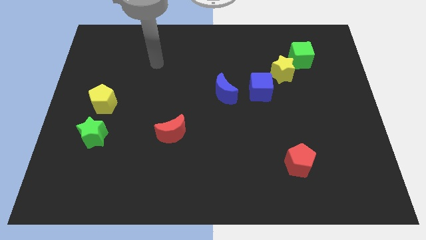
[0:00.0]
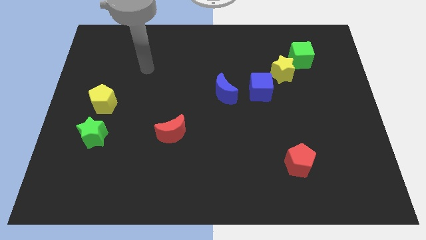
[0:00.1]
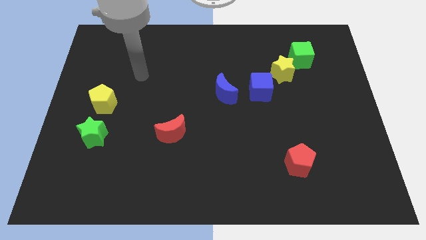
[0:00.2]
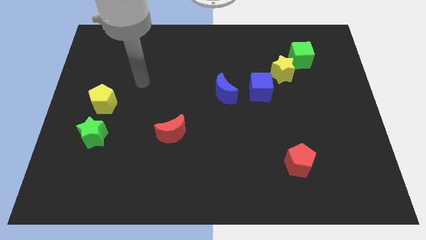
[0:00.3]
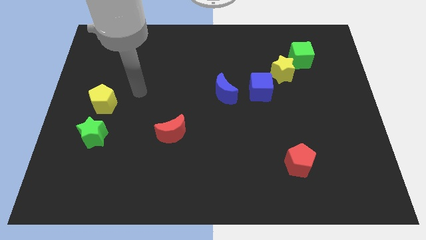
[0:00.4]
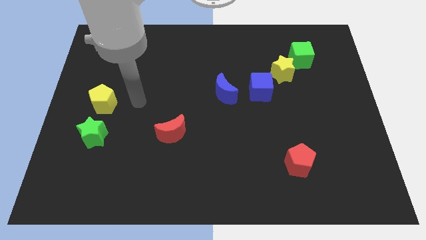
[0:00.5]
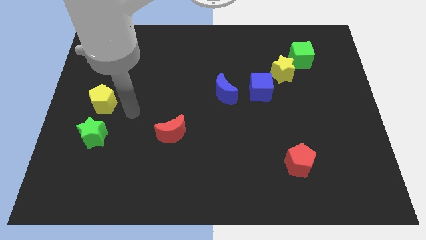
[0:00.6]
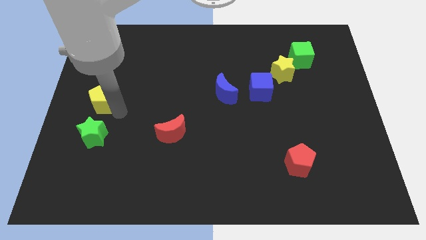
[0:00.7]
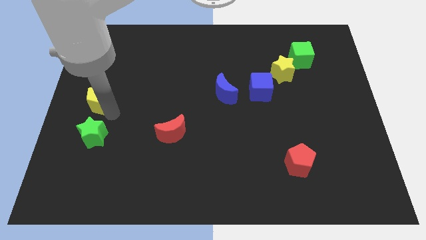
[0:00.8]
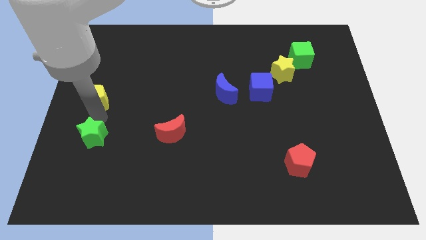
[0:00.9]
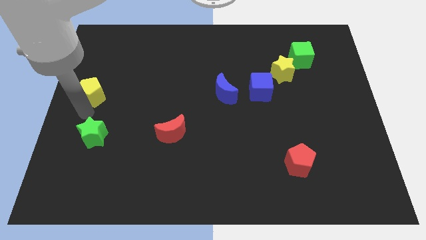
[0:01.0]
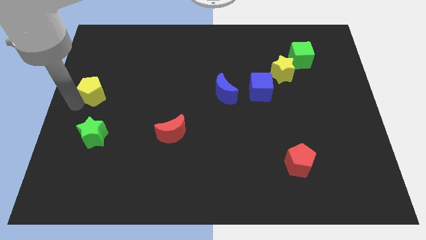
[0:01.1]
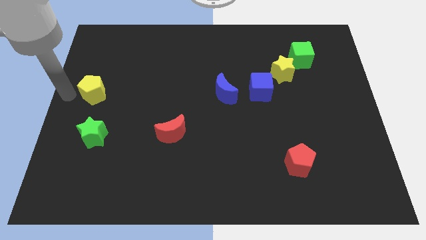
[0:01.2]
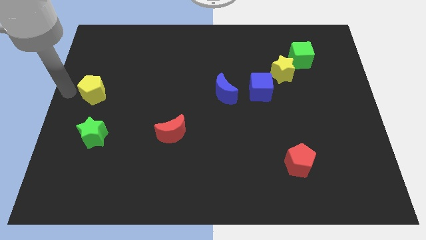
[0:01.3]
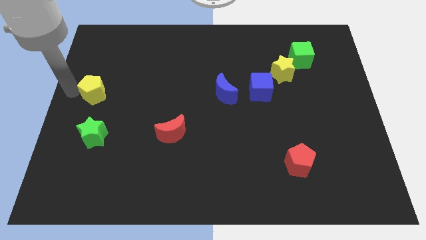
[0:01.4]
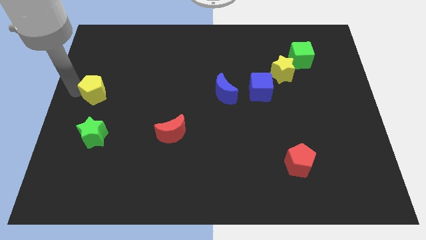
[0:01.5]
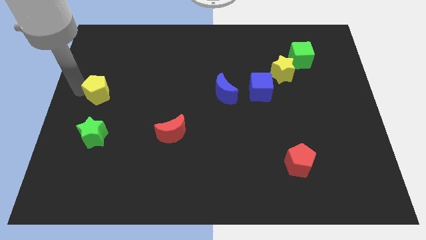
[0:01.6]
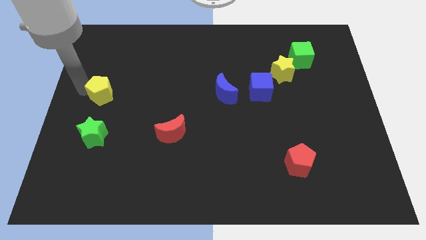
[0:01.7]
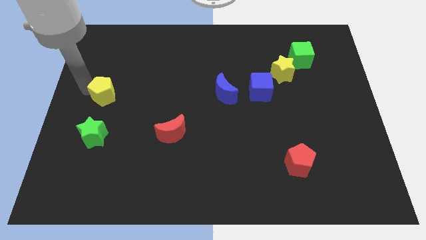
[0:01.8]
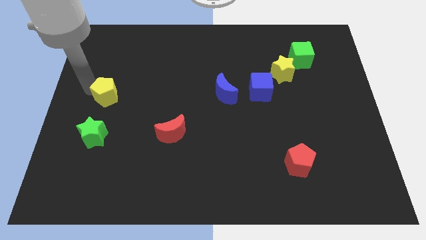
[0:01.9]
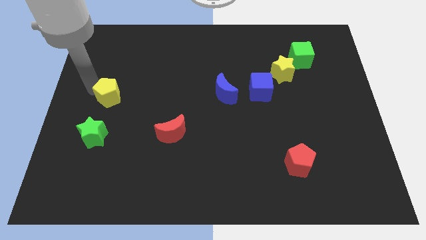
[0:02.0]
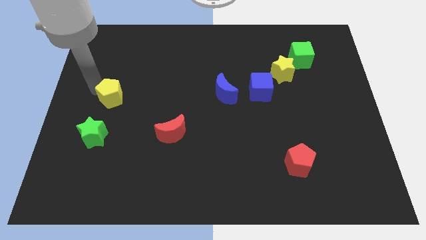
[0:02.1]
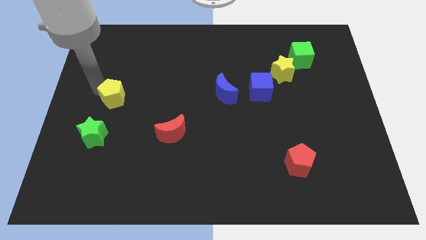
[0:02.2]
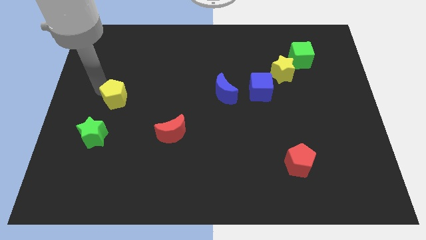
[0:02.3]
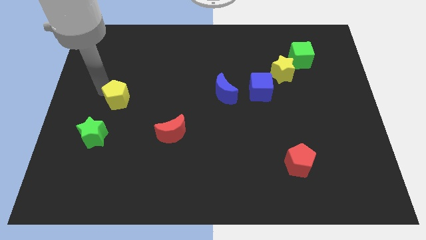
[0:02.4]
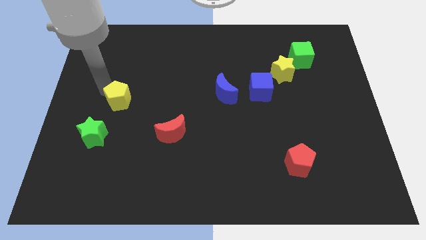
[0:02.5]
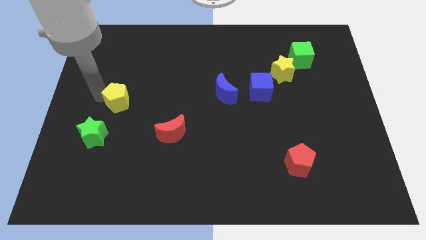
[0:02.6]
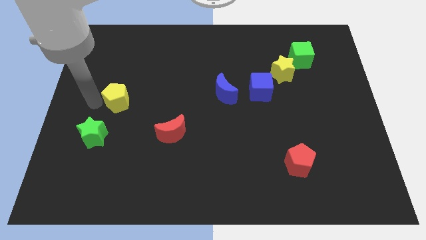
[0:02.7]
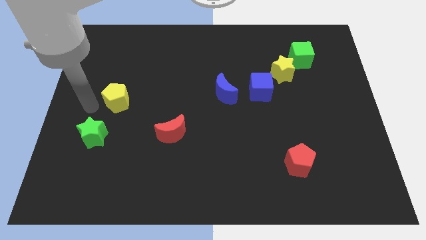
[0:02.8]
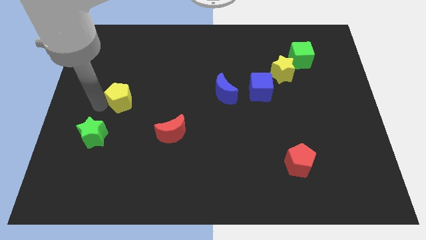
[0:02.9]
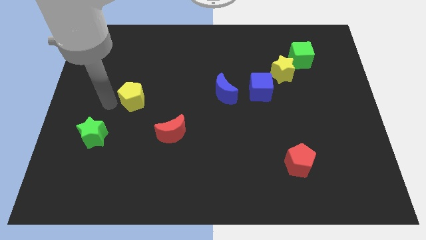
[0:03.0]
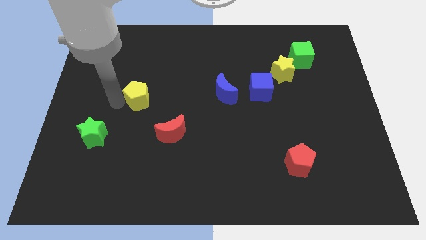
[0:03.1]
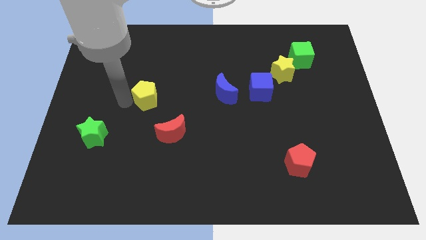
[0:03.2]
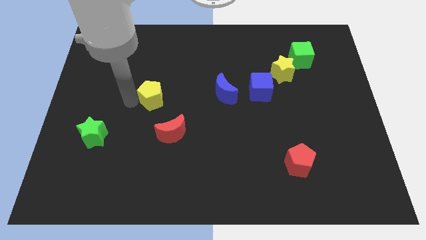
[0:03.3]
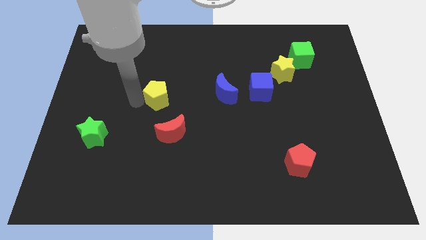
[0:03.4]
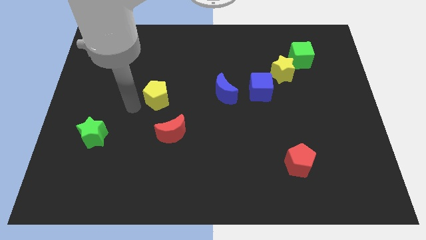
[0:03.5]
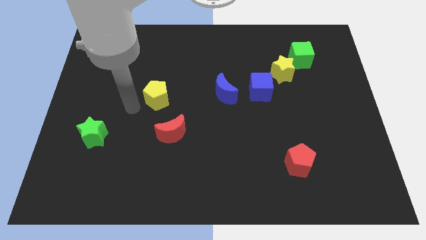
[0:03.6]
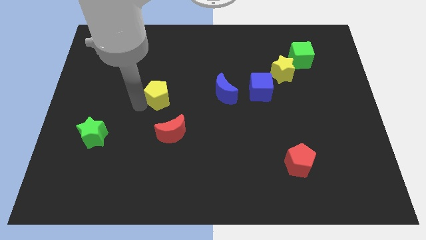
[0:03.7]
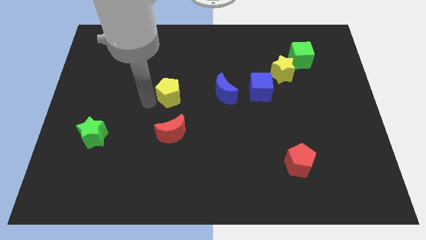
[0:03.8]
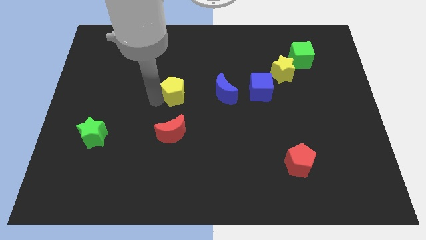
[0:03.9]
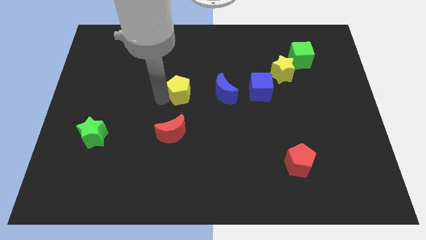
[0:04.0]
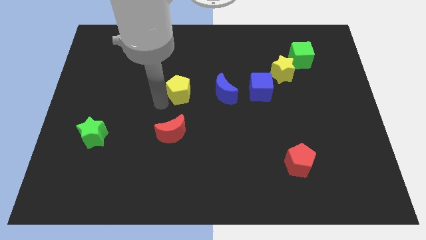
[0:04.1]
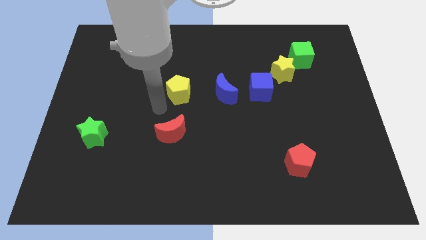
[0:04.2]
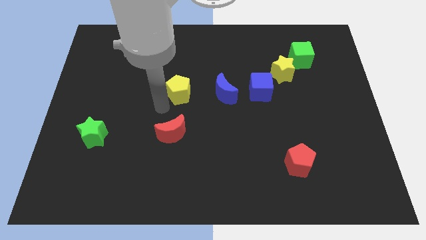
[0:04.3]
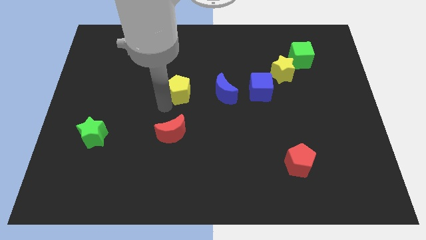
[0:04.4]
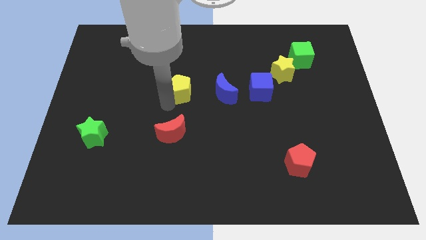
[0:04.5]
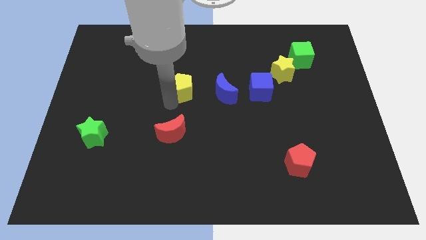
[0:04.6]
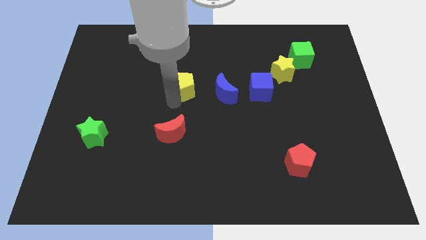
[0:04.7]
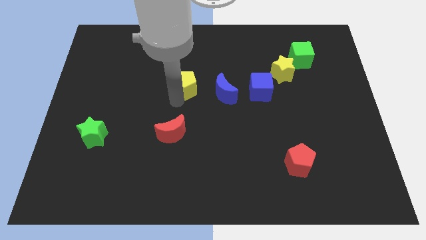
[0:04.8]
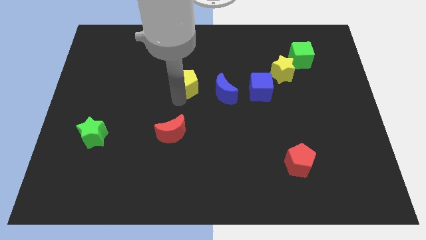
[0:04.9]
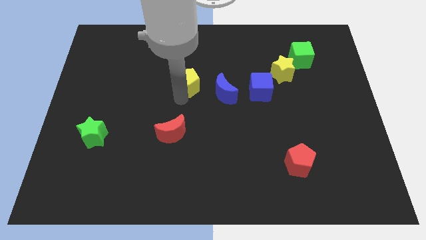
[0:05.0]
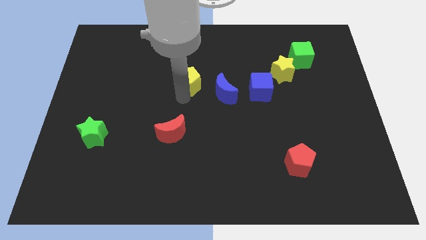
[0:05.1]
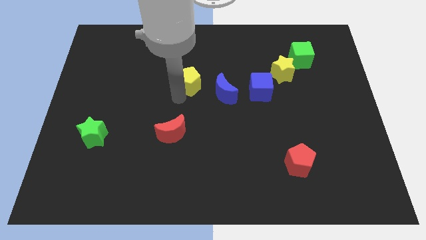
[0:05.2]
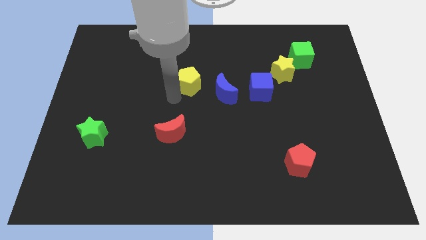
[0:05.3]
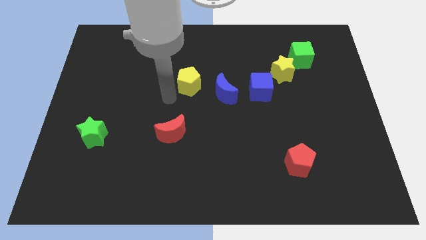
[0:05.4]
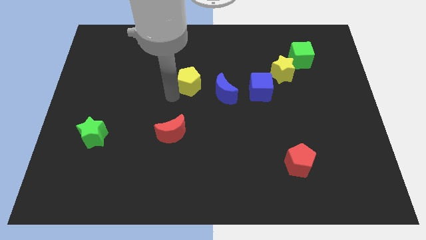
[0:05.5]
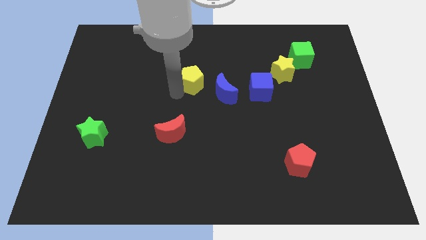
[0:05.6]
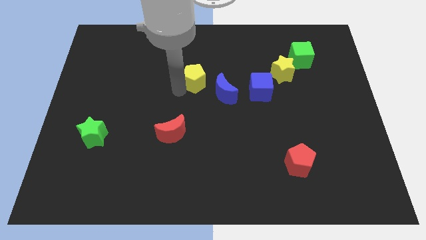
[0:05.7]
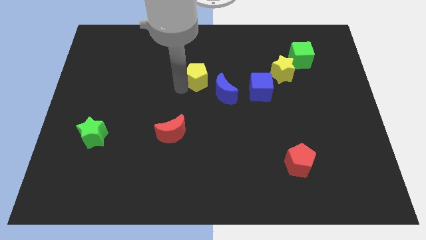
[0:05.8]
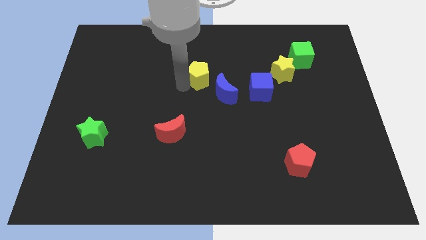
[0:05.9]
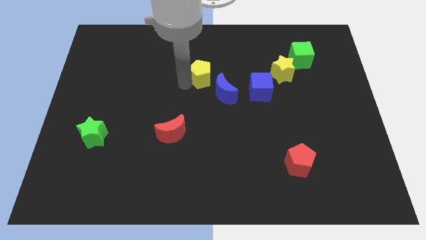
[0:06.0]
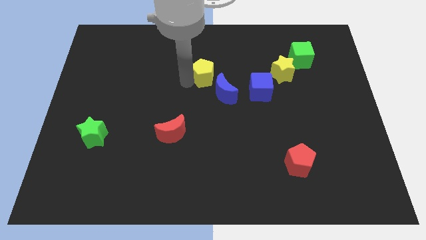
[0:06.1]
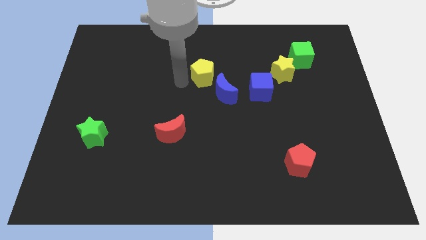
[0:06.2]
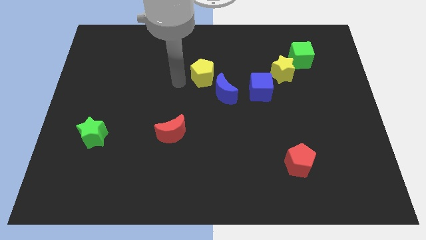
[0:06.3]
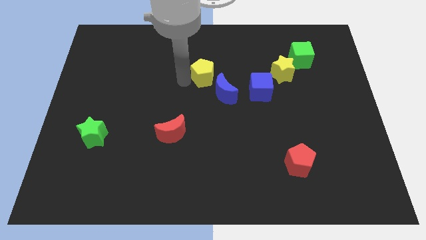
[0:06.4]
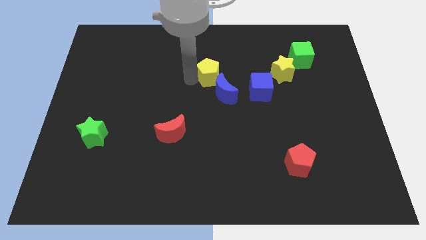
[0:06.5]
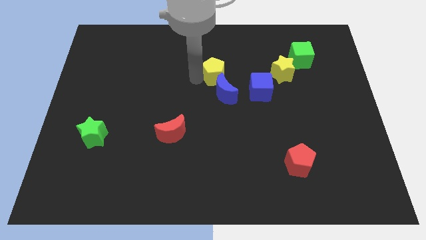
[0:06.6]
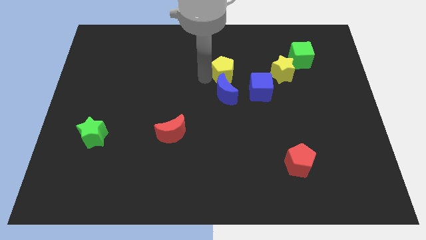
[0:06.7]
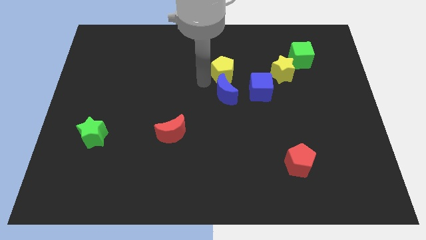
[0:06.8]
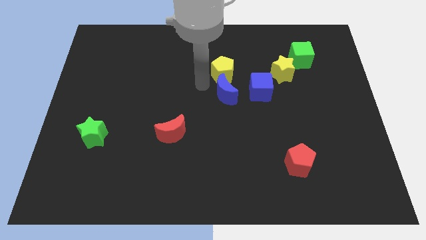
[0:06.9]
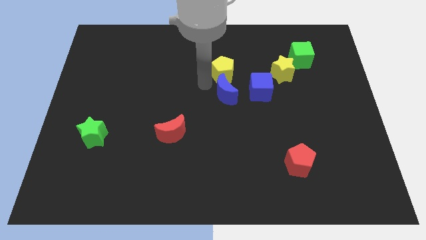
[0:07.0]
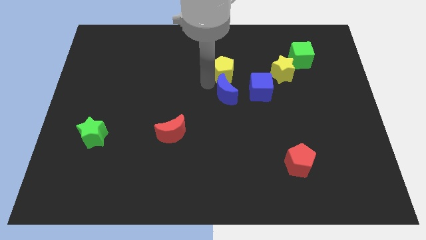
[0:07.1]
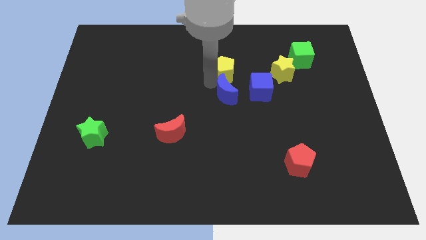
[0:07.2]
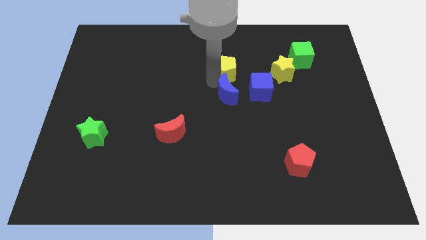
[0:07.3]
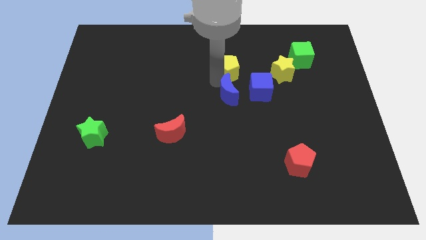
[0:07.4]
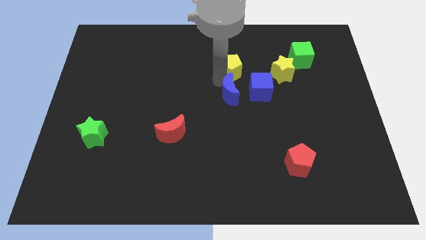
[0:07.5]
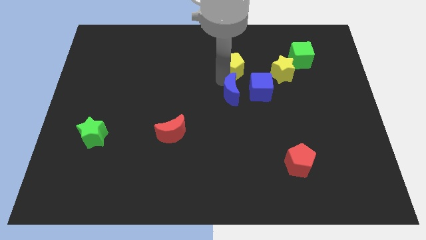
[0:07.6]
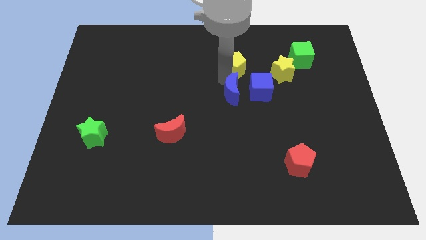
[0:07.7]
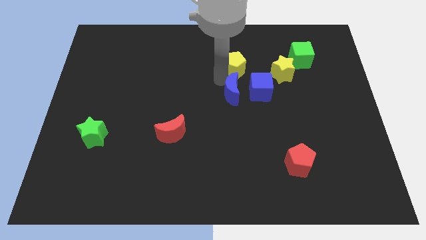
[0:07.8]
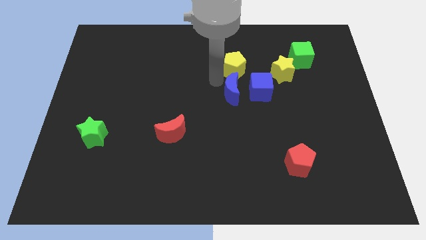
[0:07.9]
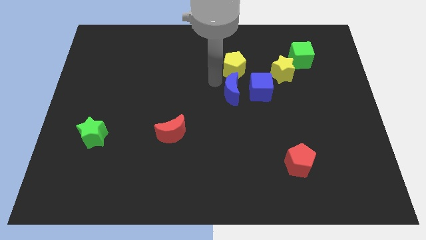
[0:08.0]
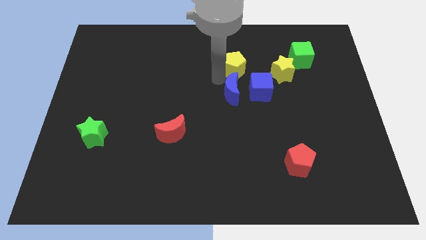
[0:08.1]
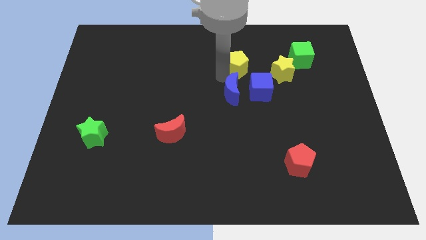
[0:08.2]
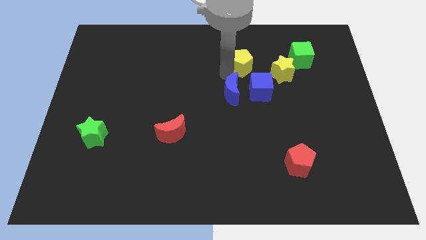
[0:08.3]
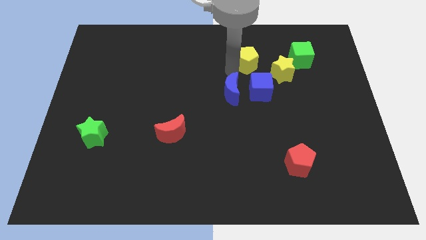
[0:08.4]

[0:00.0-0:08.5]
put the yellow pentagon diagonally up and to the left of the yellow star
